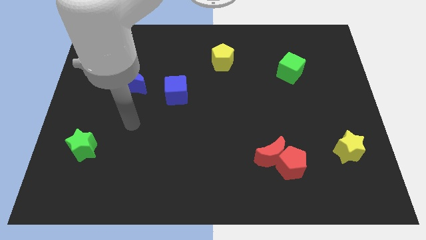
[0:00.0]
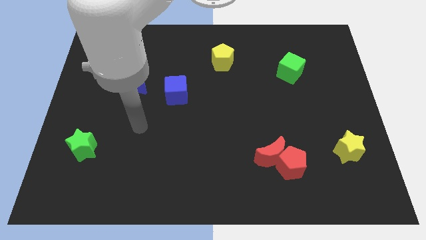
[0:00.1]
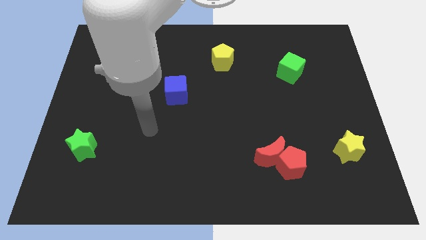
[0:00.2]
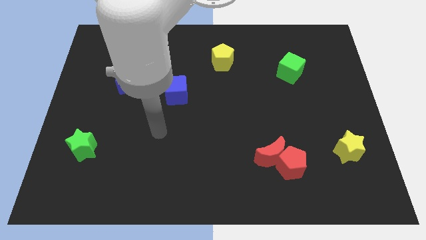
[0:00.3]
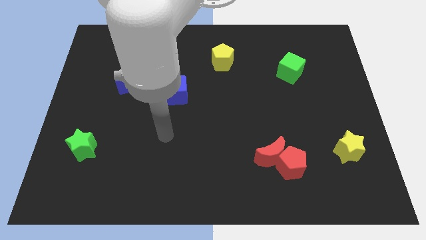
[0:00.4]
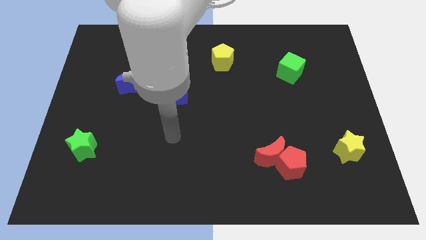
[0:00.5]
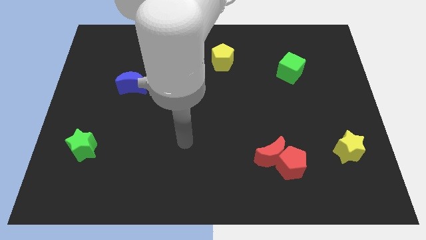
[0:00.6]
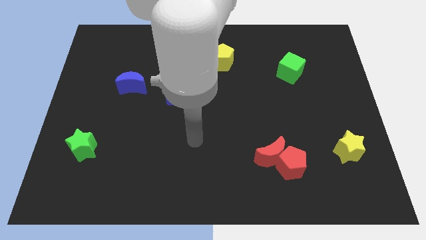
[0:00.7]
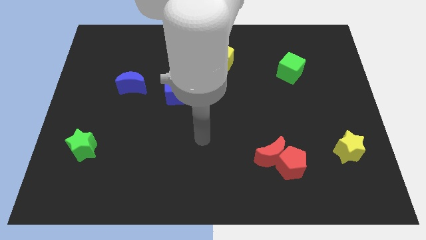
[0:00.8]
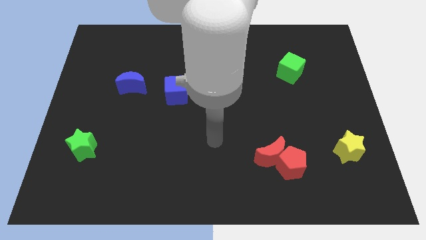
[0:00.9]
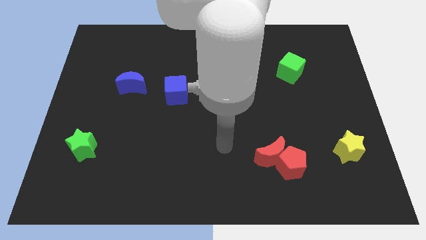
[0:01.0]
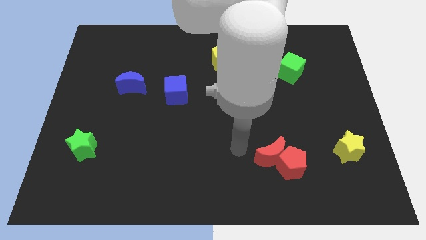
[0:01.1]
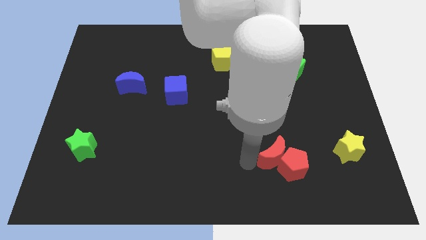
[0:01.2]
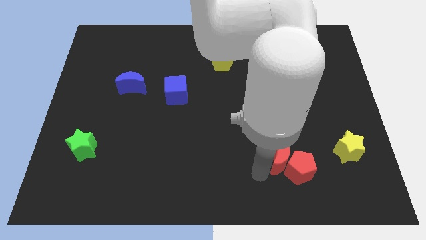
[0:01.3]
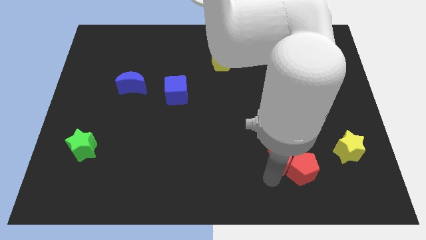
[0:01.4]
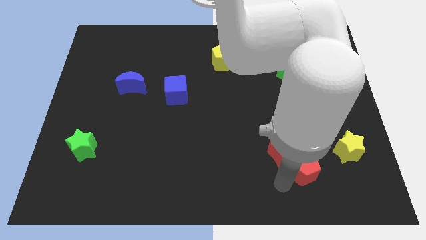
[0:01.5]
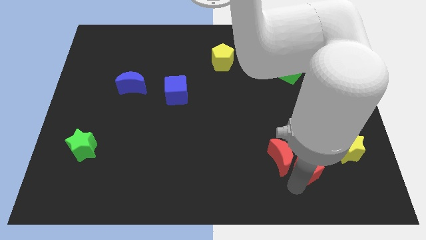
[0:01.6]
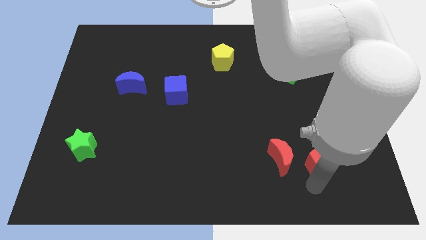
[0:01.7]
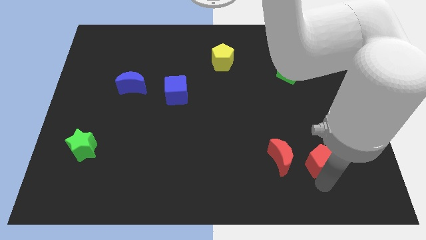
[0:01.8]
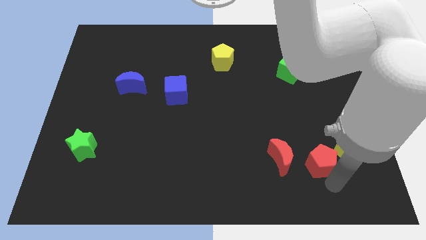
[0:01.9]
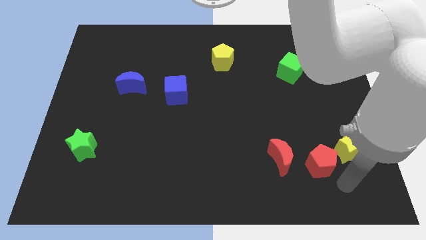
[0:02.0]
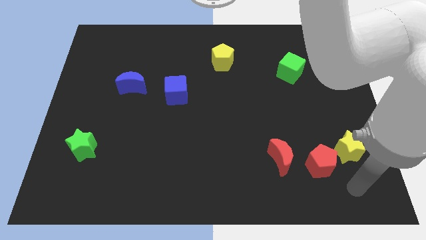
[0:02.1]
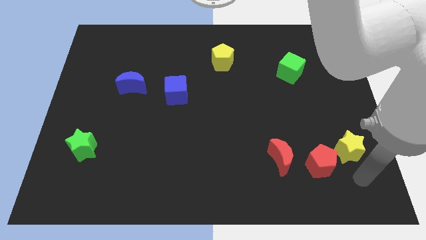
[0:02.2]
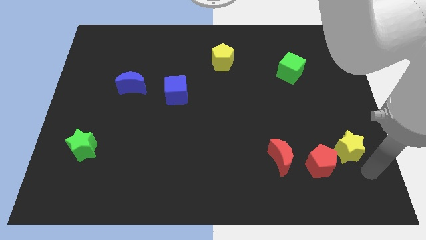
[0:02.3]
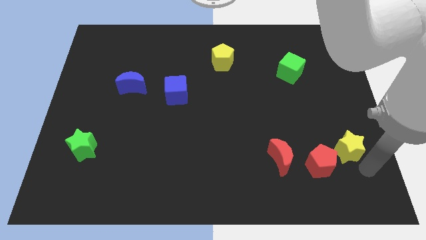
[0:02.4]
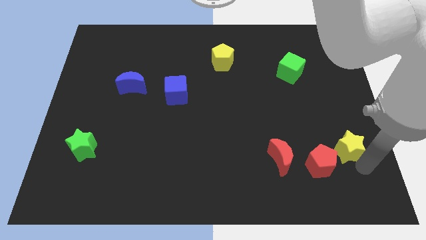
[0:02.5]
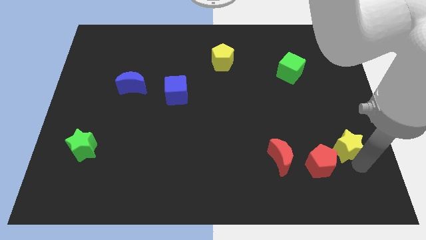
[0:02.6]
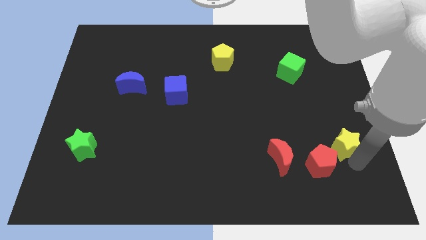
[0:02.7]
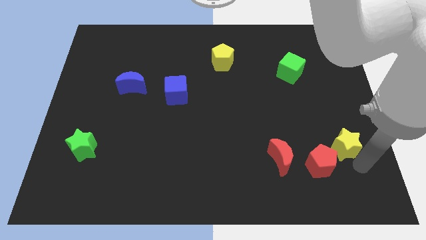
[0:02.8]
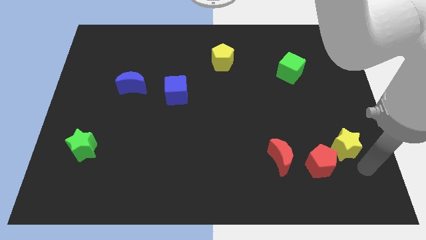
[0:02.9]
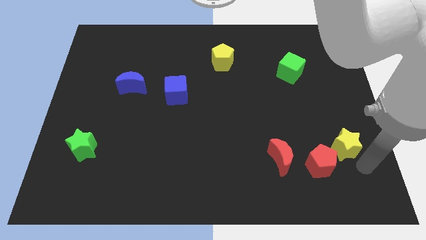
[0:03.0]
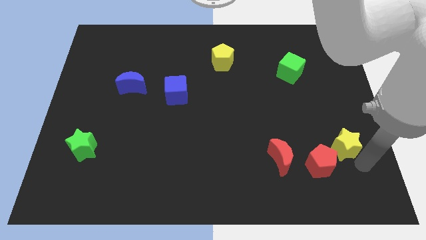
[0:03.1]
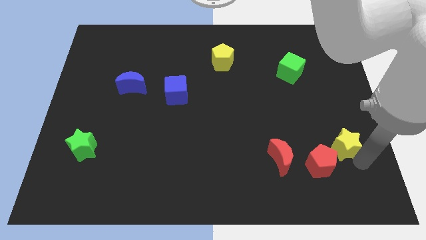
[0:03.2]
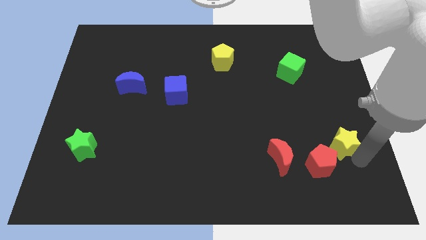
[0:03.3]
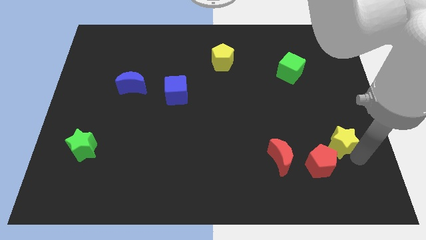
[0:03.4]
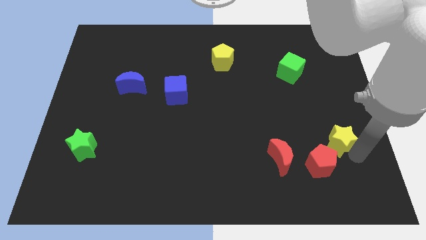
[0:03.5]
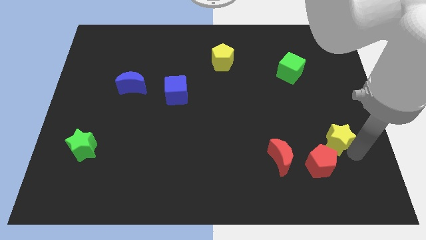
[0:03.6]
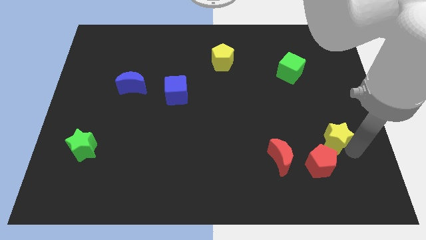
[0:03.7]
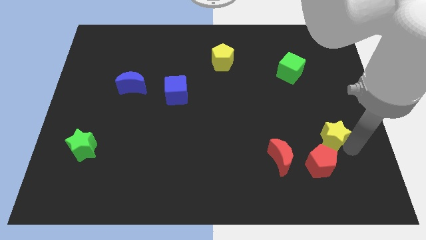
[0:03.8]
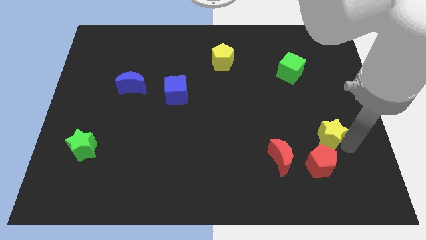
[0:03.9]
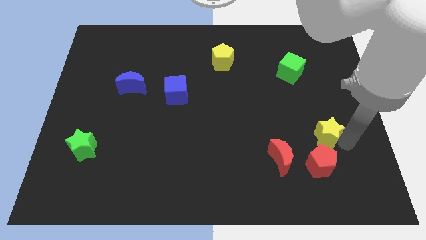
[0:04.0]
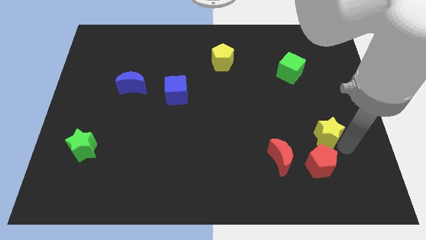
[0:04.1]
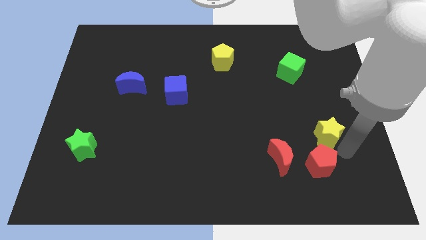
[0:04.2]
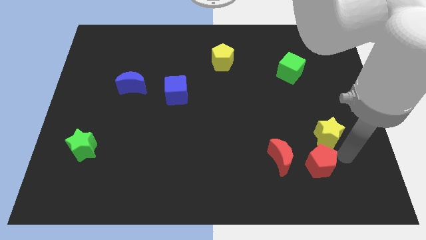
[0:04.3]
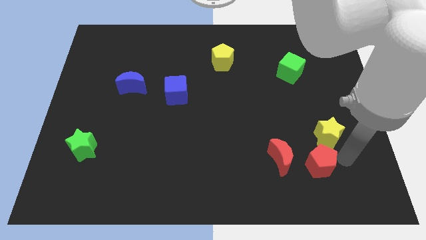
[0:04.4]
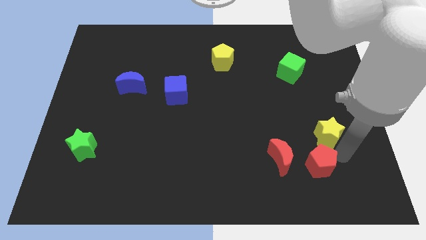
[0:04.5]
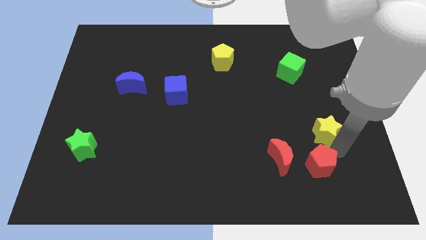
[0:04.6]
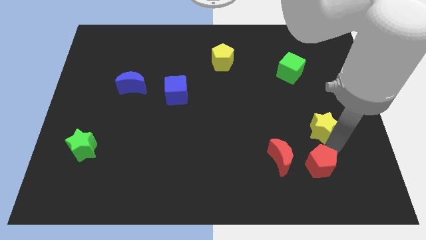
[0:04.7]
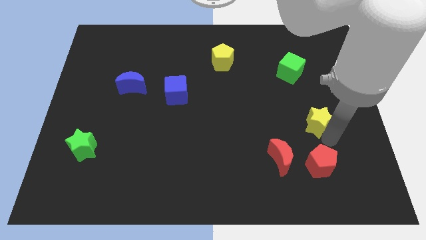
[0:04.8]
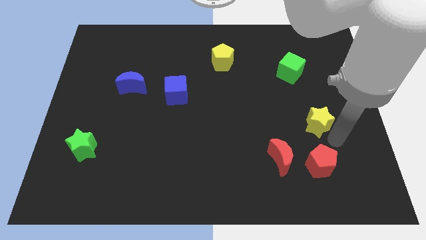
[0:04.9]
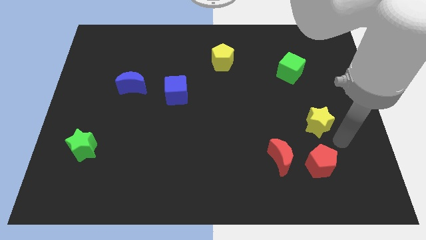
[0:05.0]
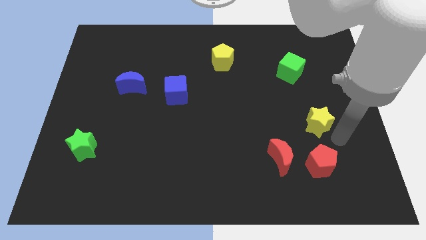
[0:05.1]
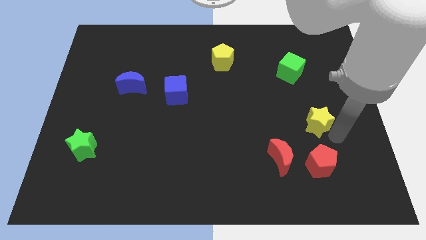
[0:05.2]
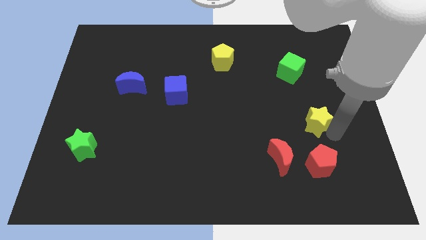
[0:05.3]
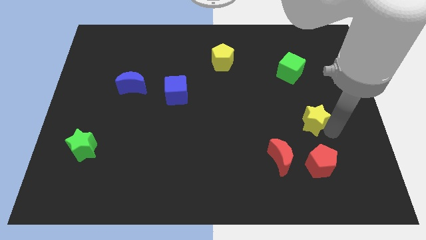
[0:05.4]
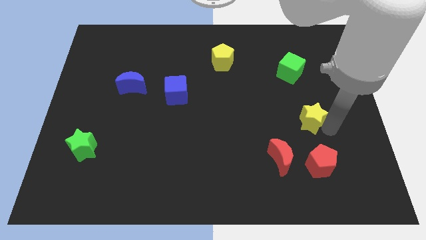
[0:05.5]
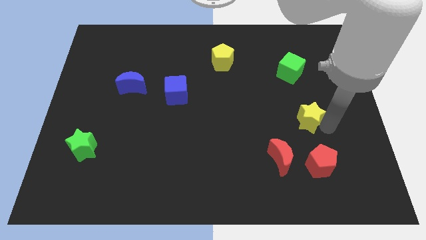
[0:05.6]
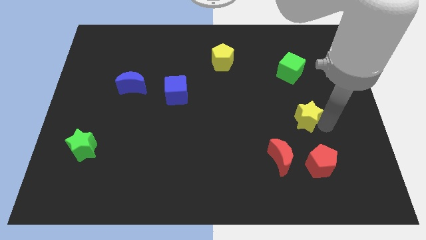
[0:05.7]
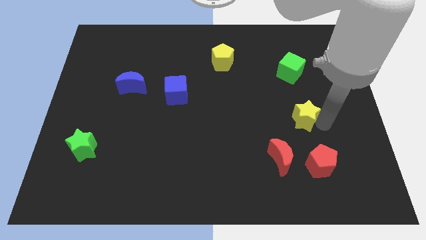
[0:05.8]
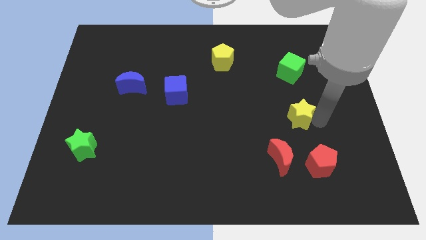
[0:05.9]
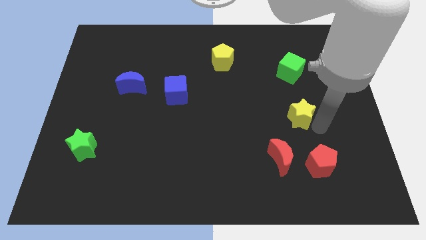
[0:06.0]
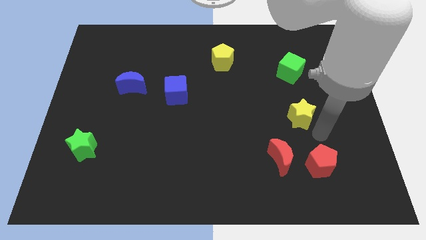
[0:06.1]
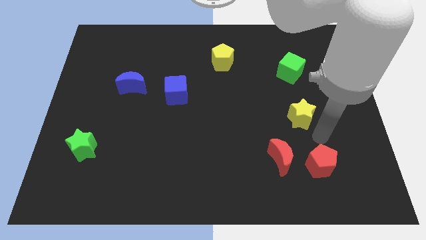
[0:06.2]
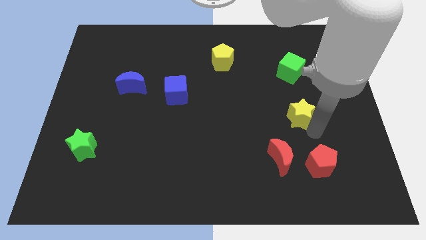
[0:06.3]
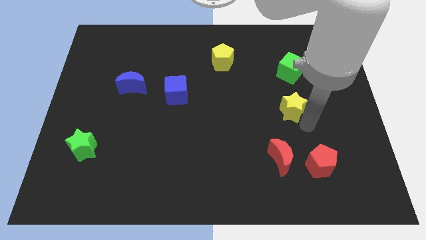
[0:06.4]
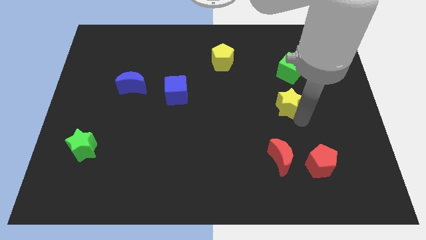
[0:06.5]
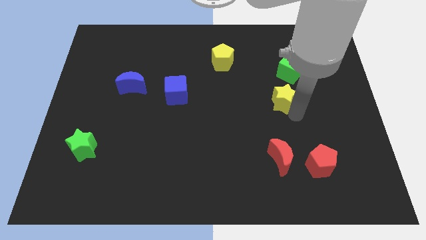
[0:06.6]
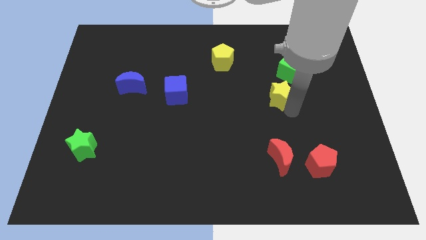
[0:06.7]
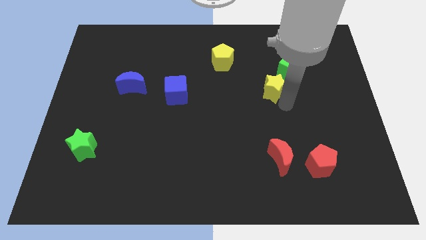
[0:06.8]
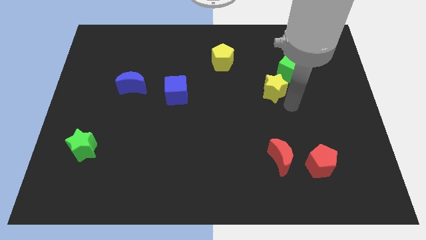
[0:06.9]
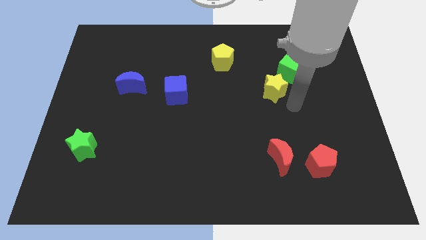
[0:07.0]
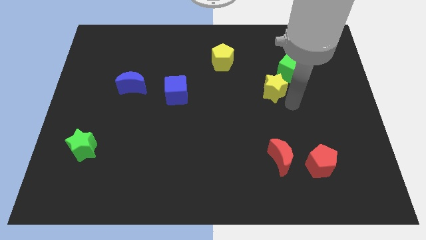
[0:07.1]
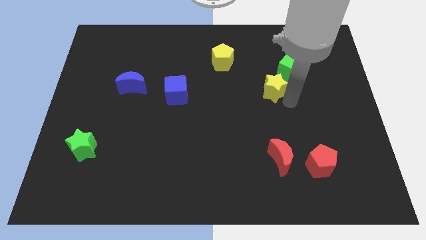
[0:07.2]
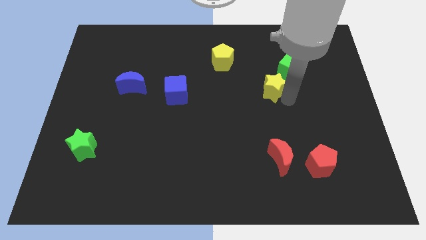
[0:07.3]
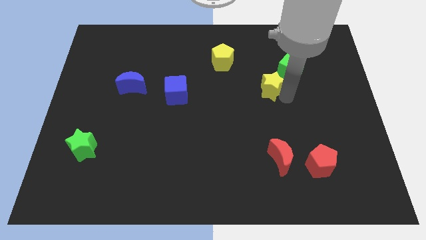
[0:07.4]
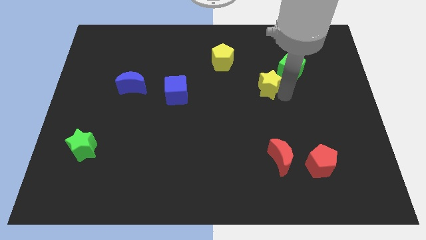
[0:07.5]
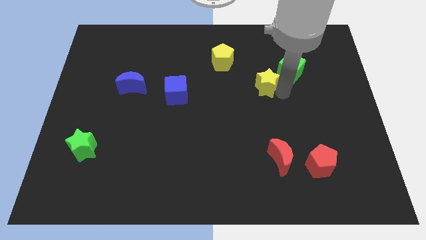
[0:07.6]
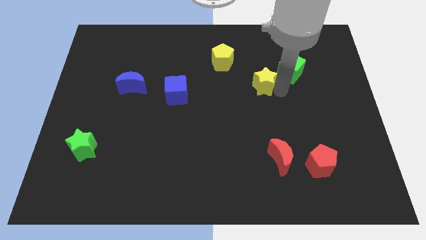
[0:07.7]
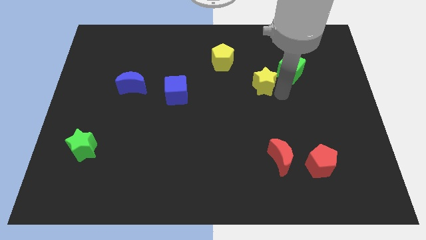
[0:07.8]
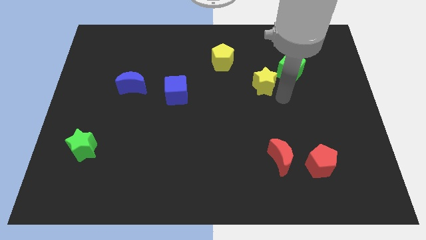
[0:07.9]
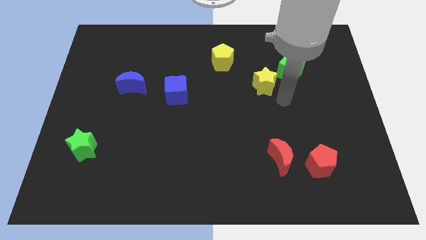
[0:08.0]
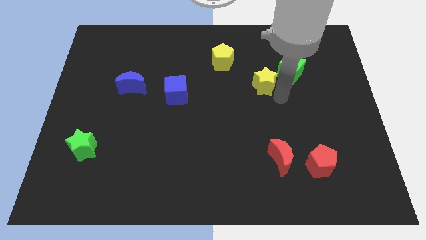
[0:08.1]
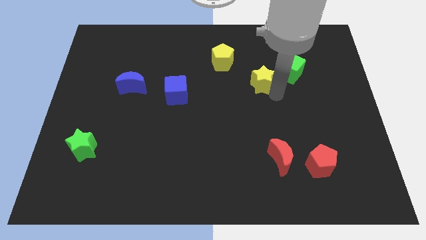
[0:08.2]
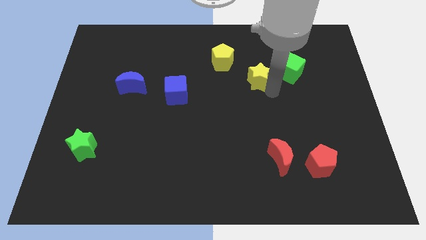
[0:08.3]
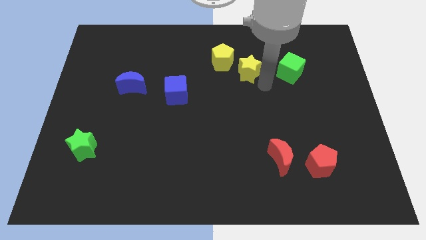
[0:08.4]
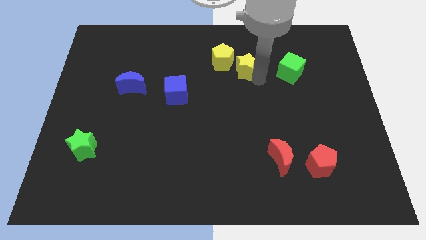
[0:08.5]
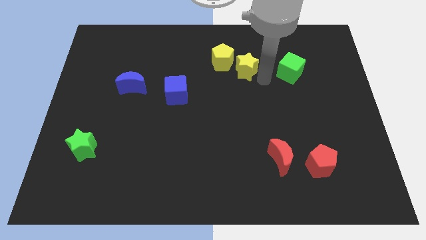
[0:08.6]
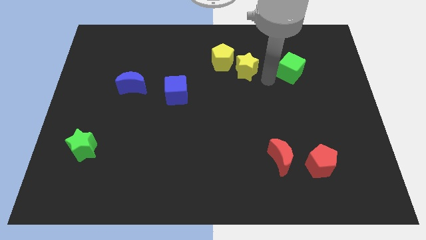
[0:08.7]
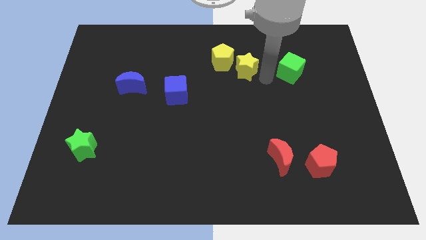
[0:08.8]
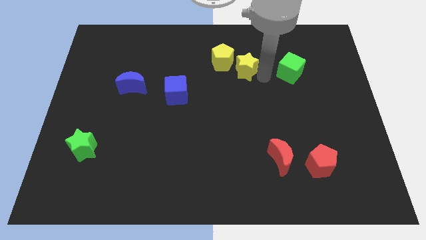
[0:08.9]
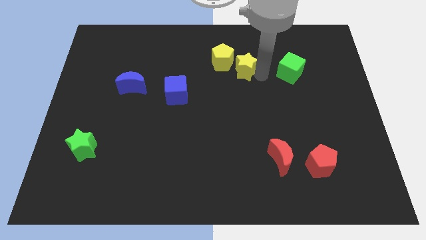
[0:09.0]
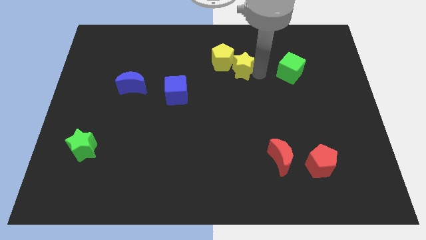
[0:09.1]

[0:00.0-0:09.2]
push the yellow star next to the yellow pentagon
